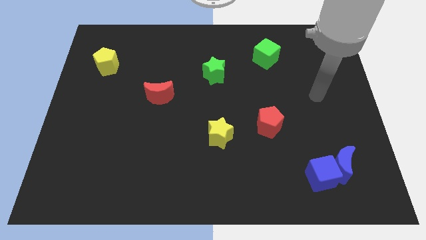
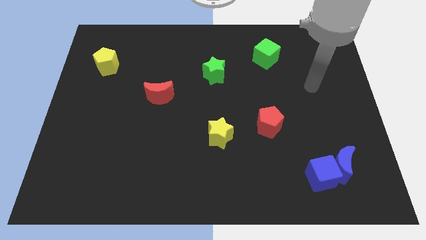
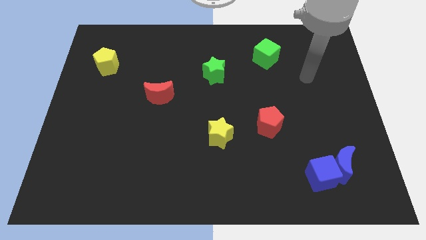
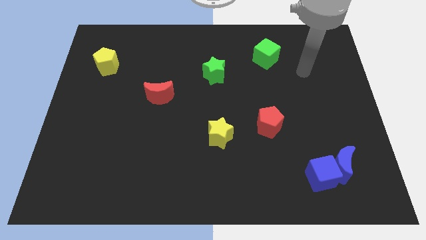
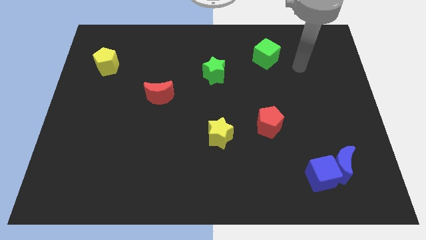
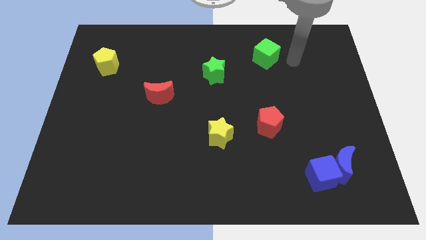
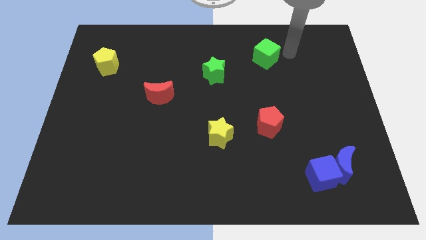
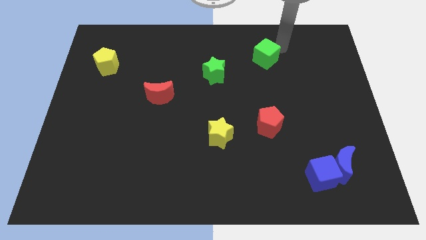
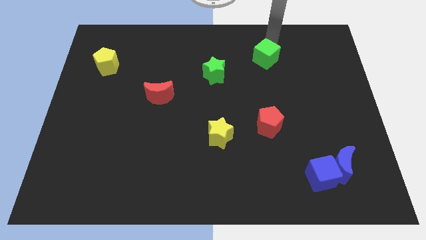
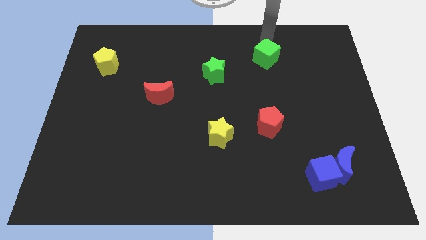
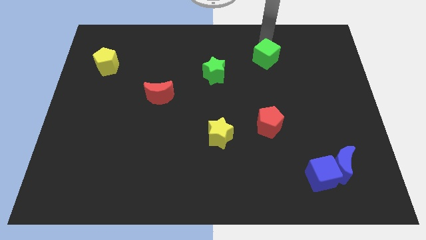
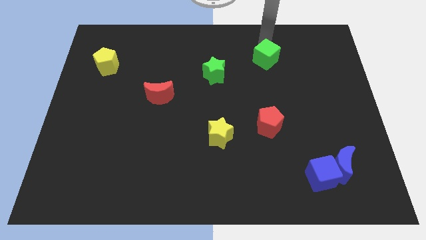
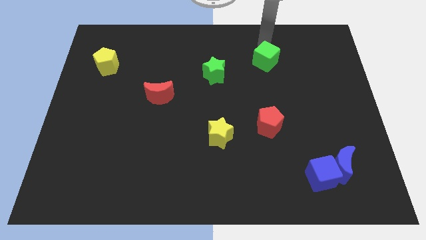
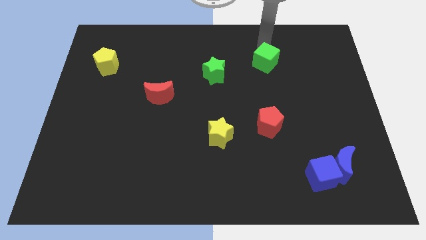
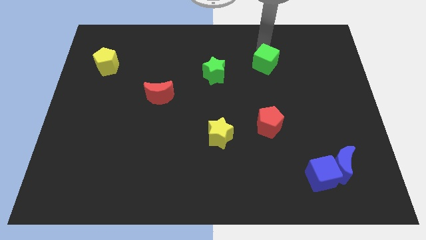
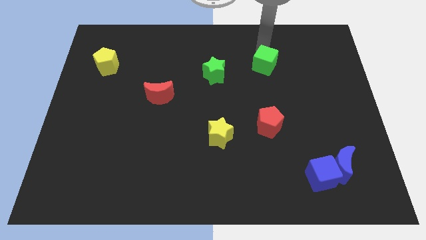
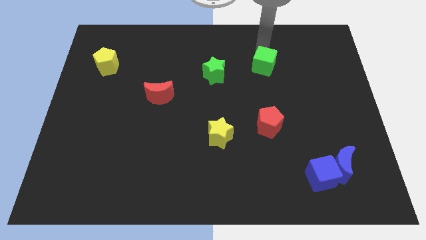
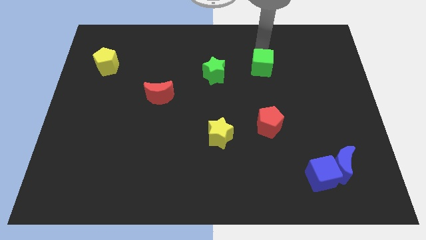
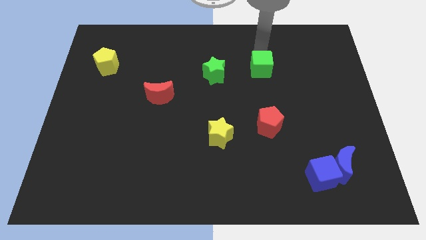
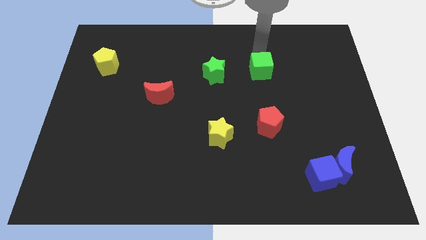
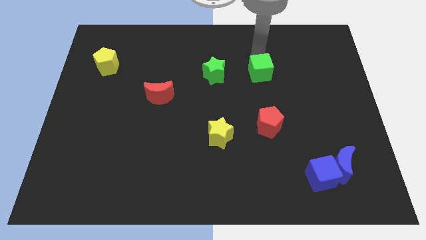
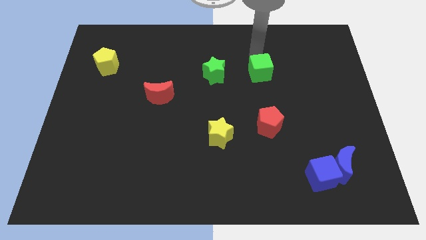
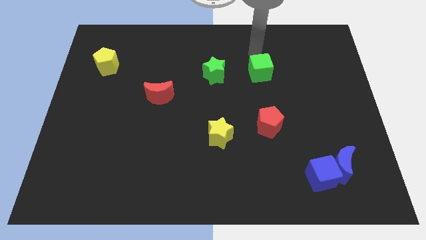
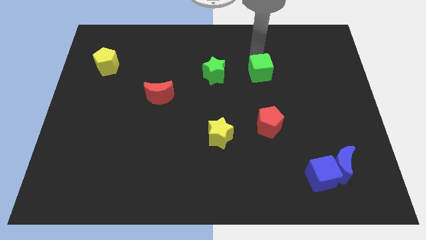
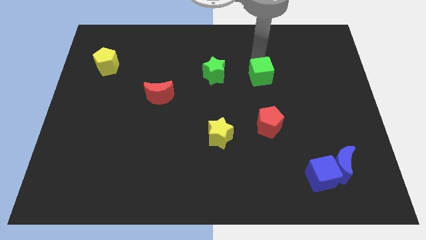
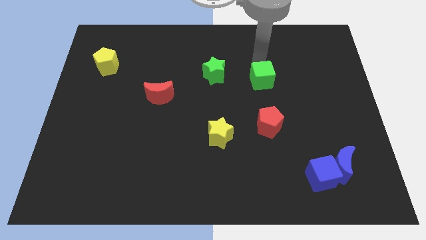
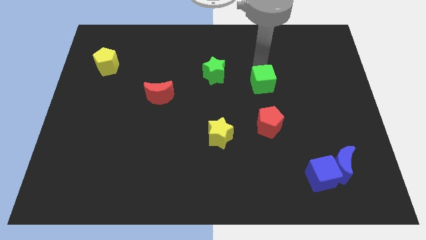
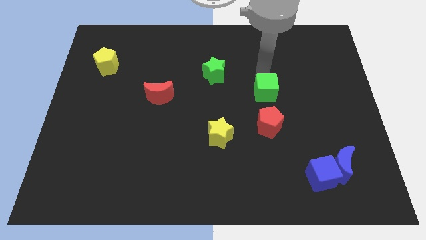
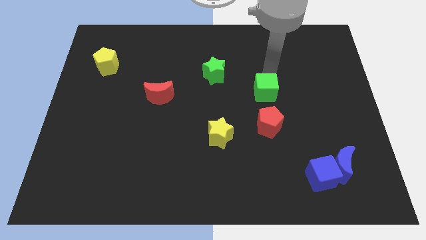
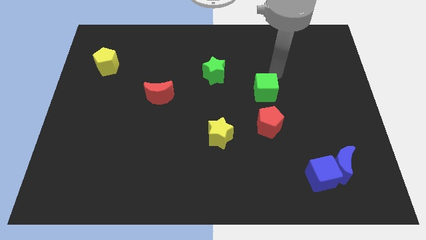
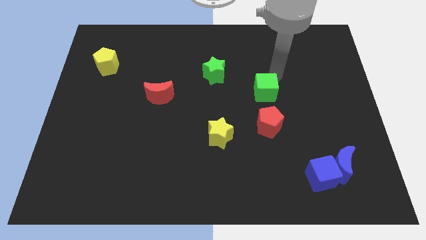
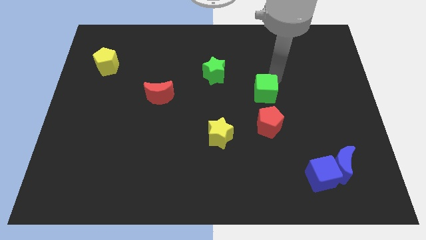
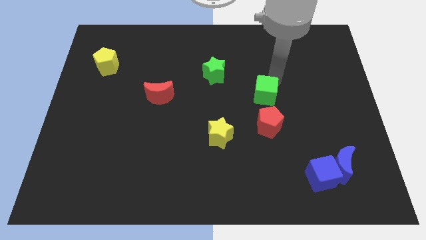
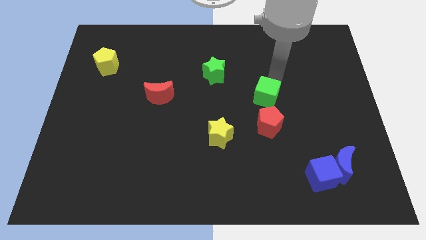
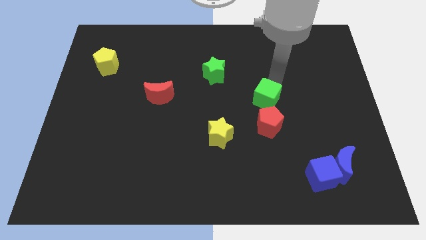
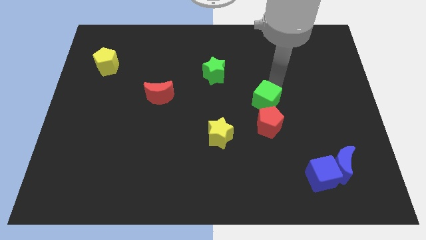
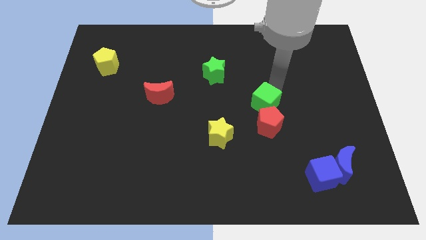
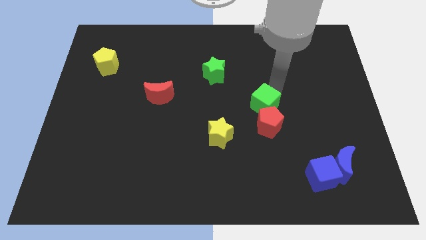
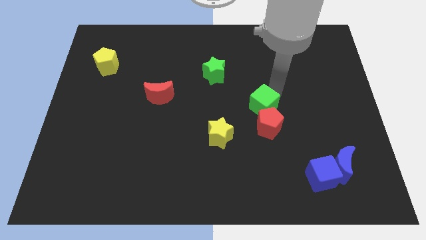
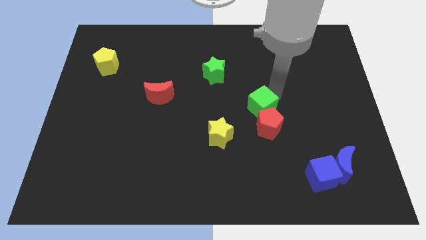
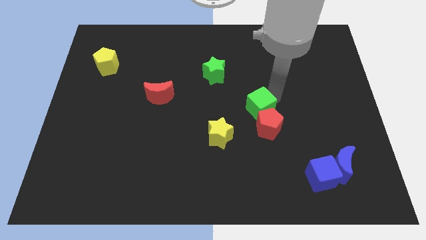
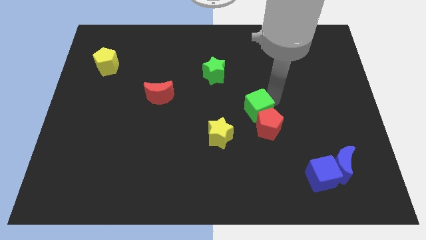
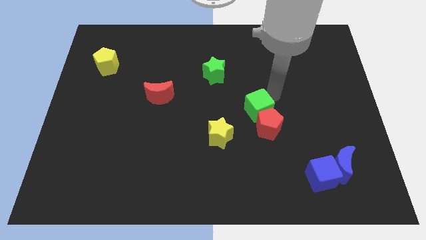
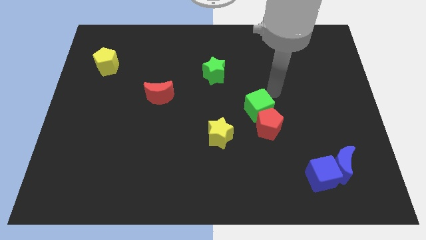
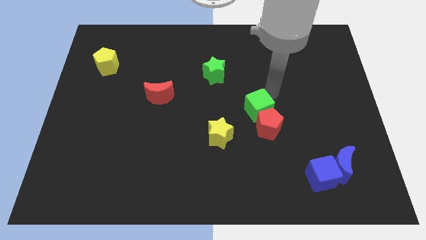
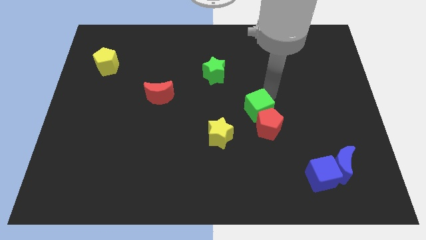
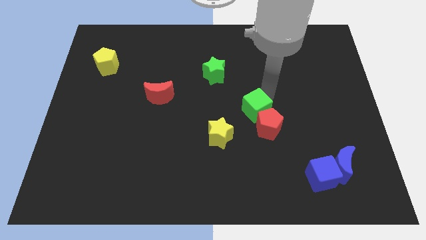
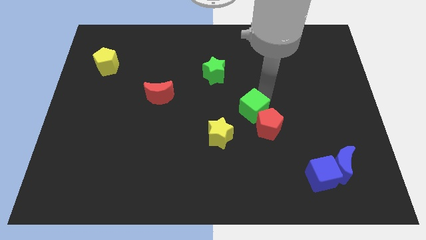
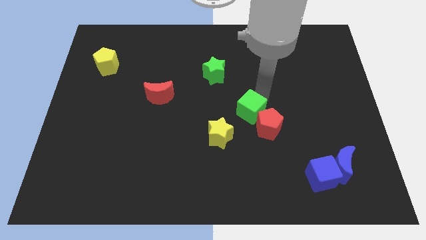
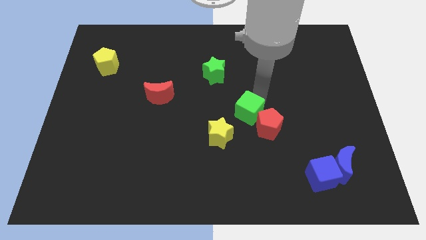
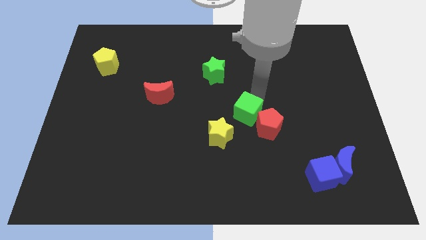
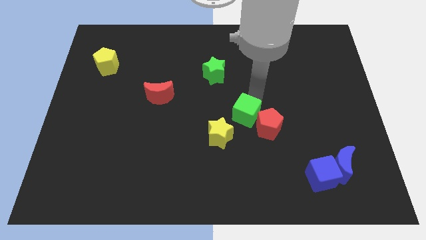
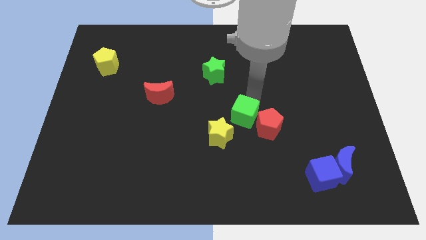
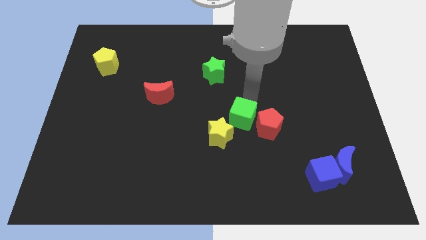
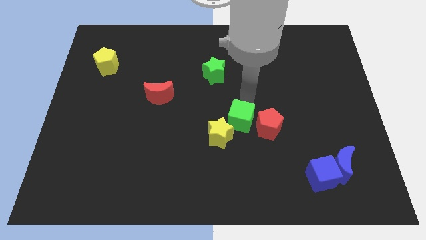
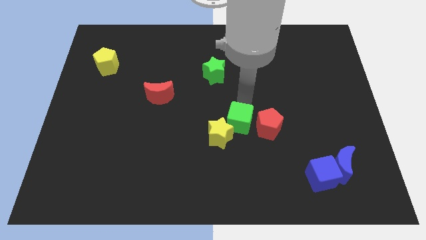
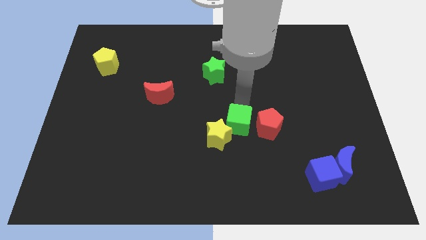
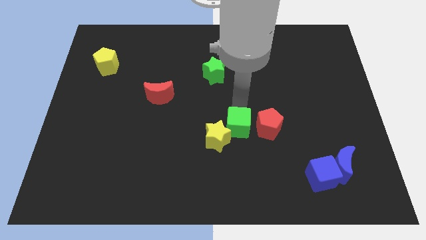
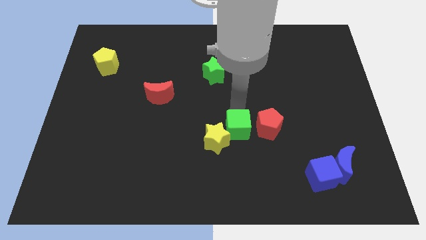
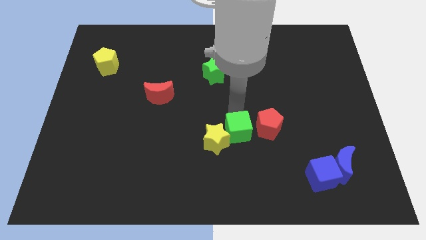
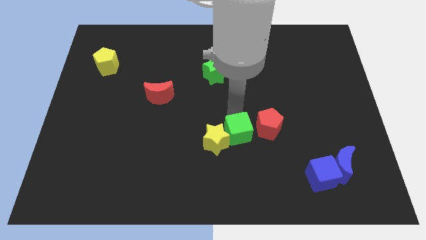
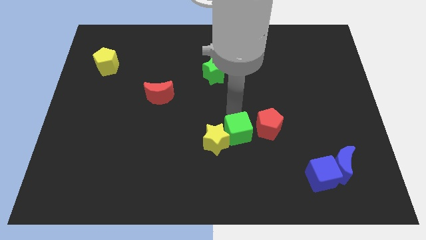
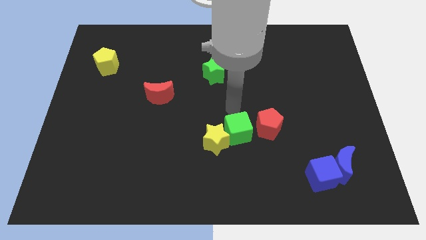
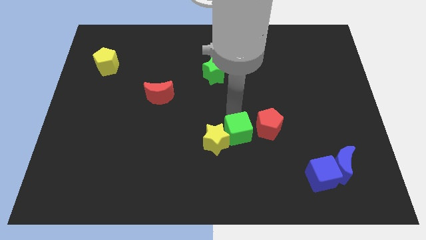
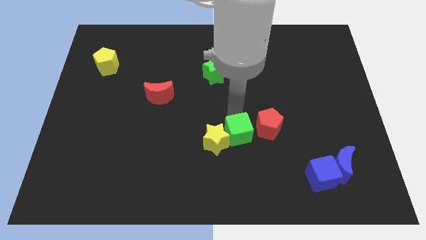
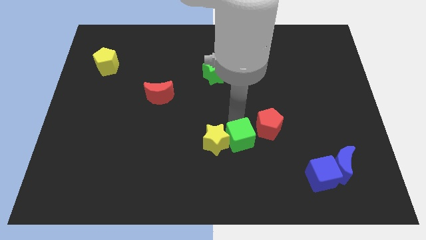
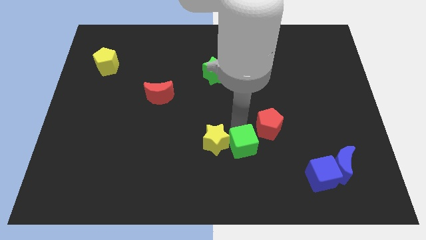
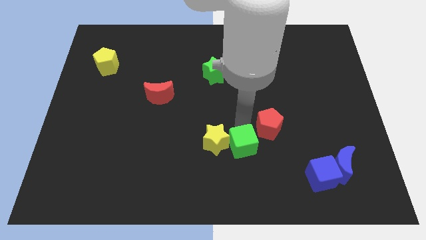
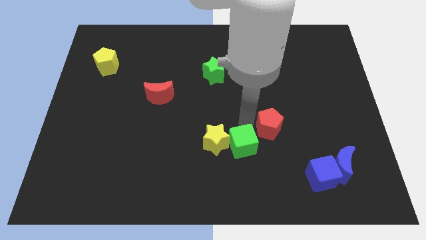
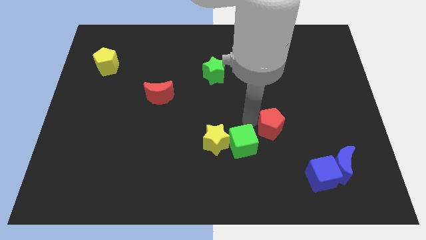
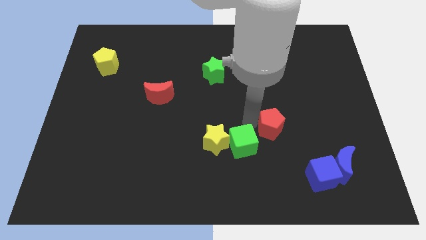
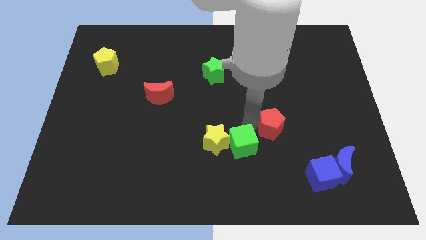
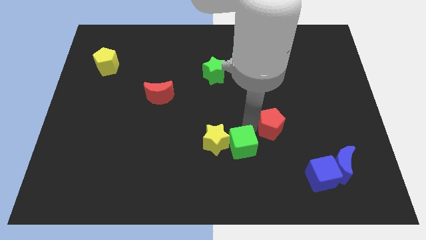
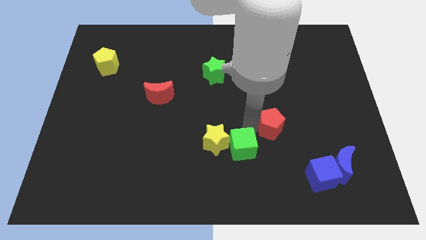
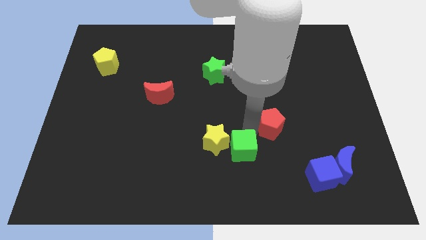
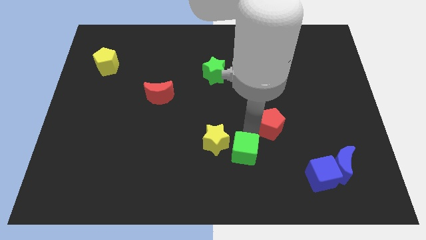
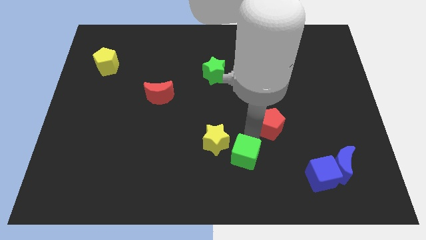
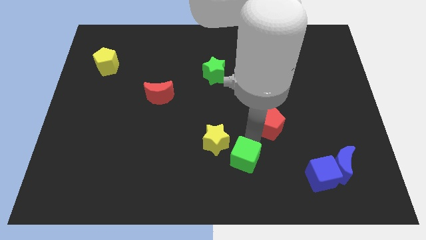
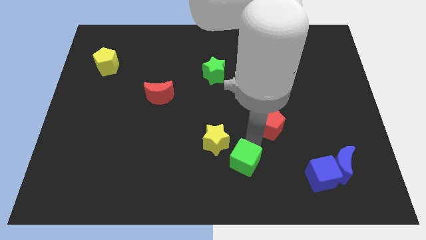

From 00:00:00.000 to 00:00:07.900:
slide the green cube to the bottom side
